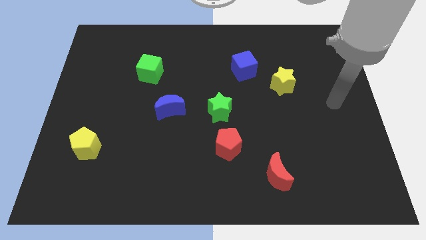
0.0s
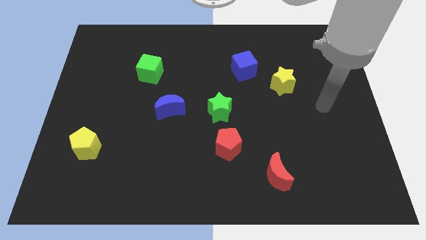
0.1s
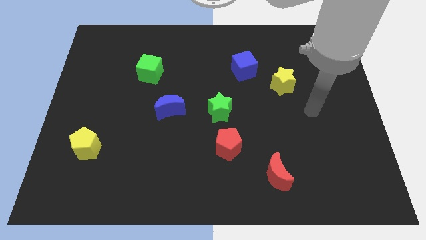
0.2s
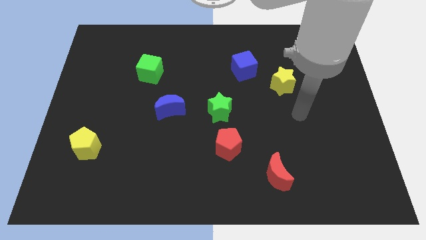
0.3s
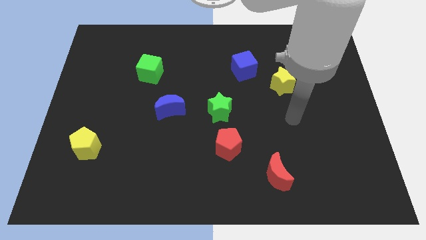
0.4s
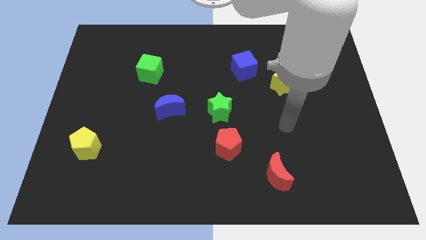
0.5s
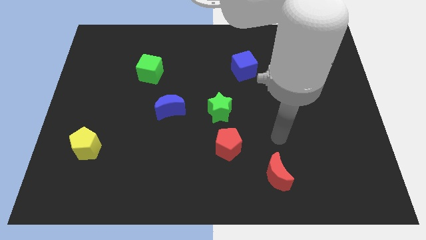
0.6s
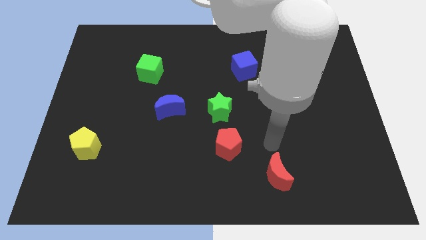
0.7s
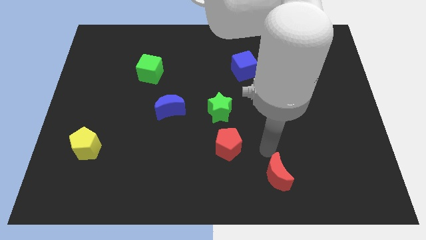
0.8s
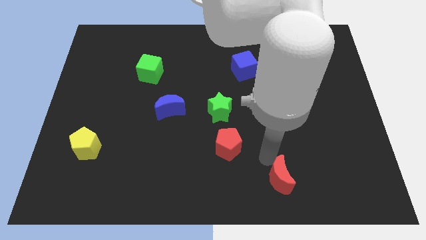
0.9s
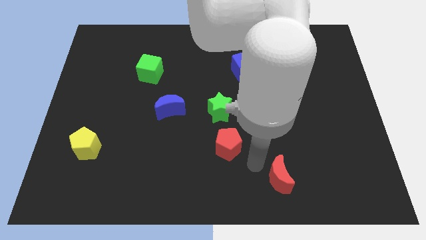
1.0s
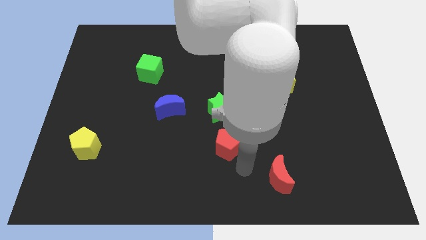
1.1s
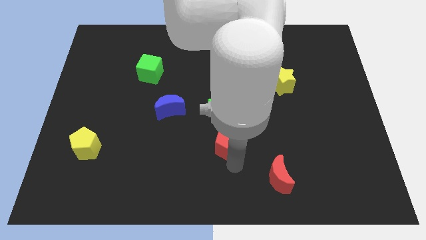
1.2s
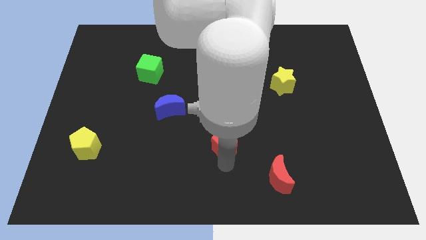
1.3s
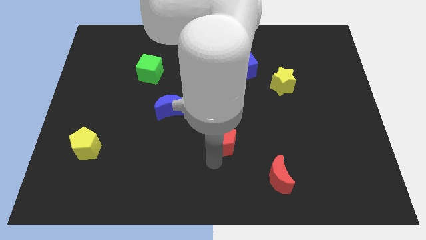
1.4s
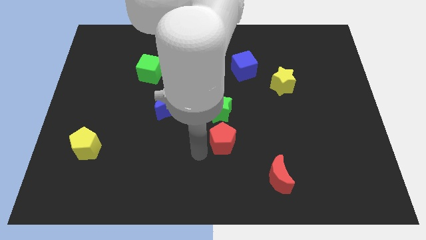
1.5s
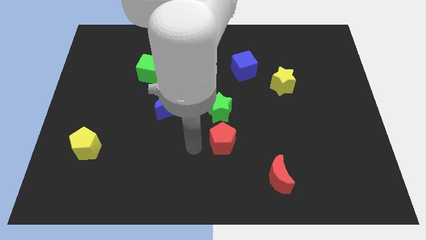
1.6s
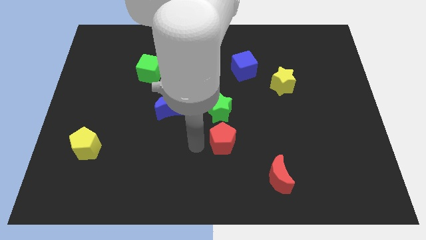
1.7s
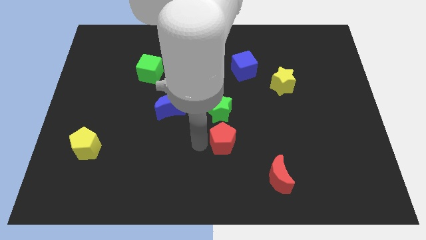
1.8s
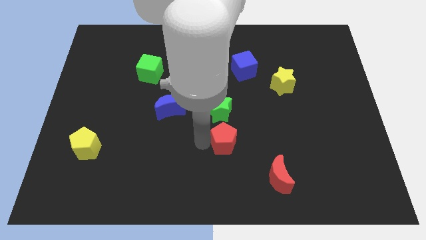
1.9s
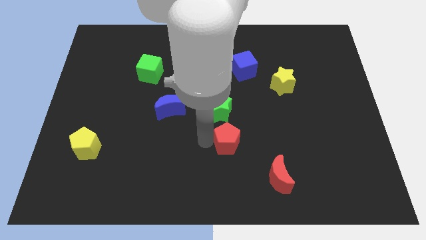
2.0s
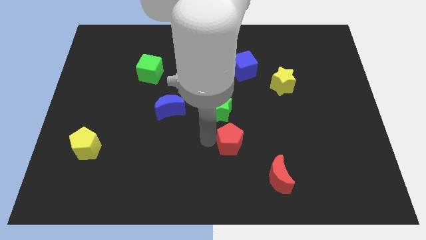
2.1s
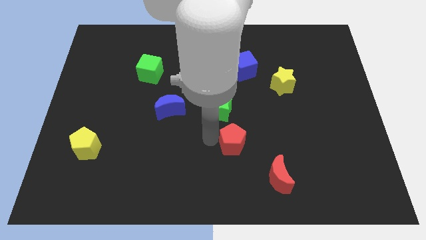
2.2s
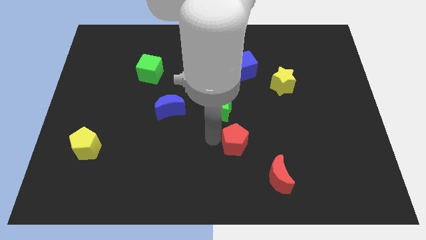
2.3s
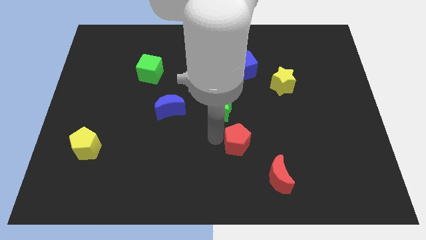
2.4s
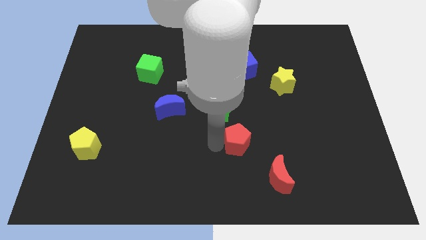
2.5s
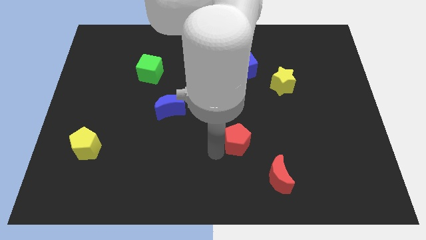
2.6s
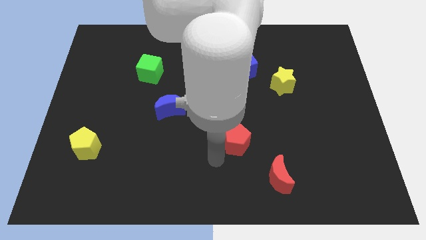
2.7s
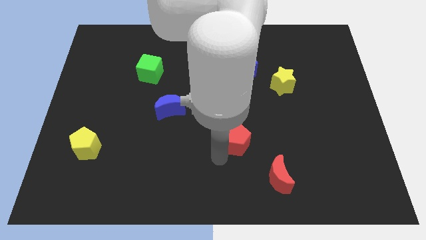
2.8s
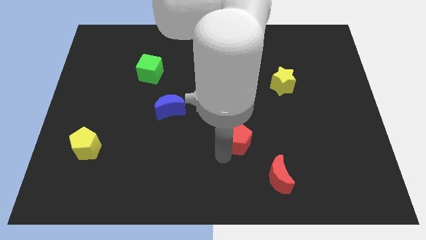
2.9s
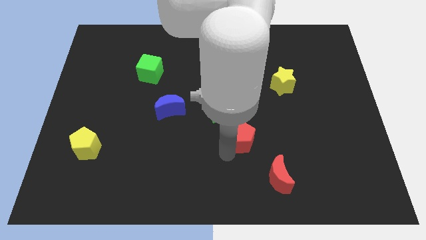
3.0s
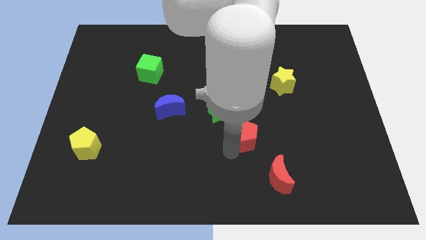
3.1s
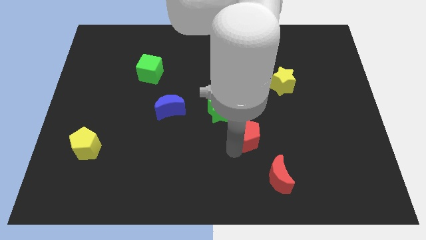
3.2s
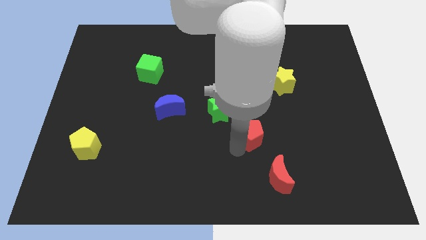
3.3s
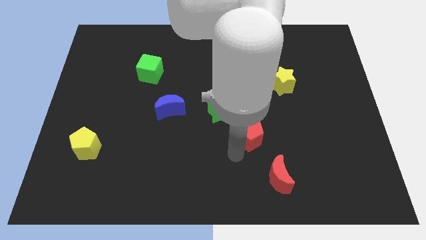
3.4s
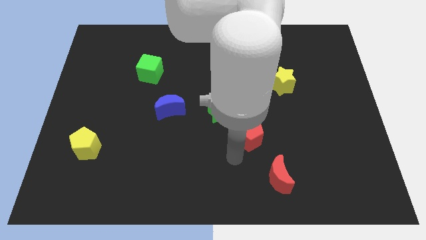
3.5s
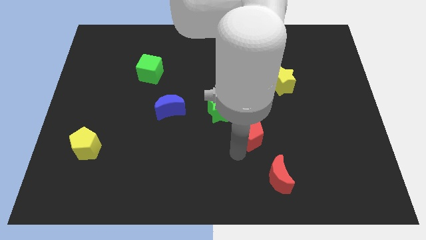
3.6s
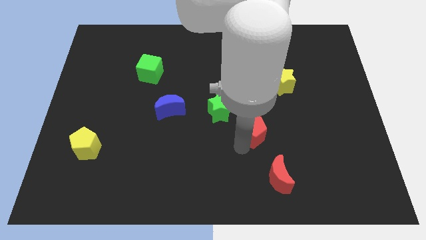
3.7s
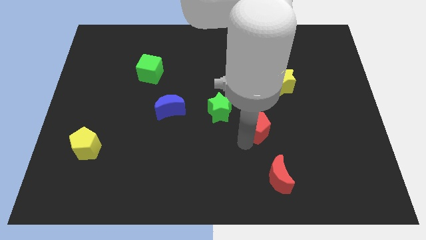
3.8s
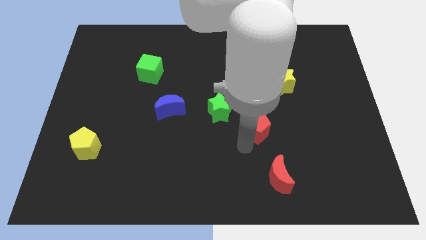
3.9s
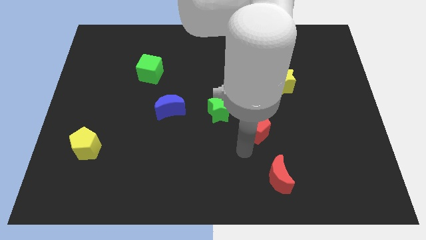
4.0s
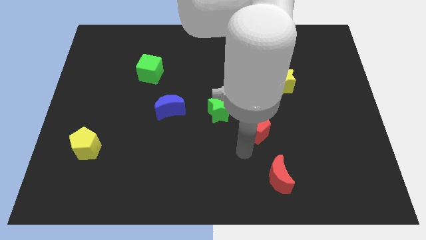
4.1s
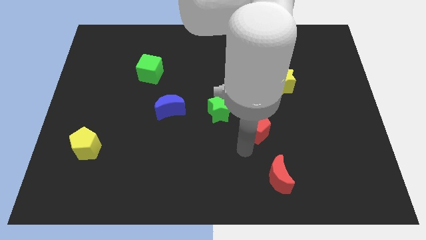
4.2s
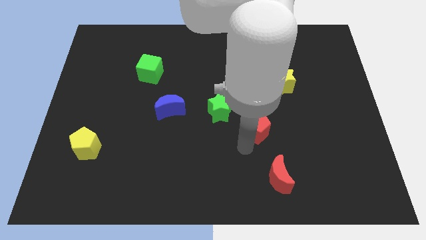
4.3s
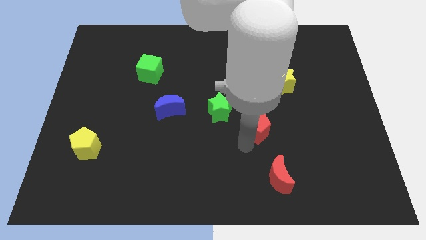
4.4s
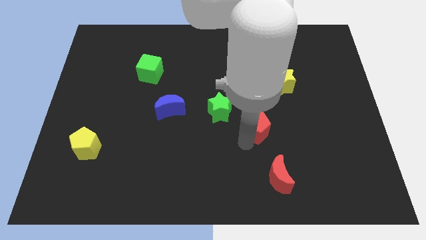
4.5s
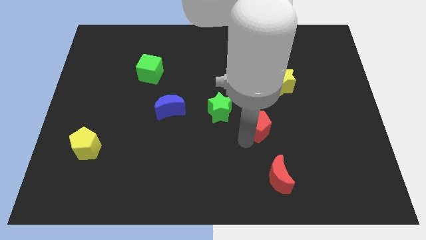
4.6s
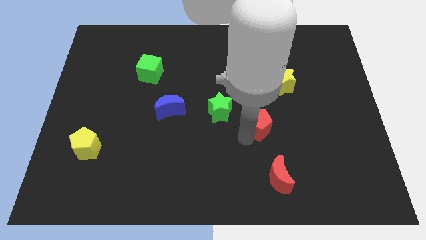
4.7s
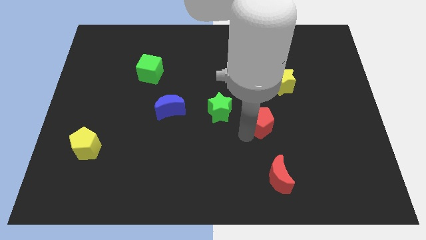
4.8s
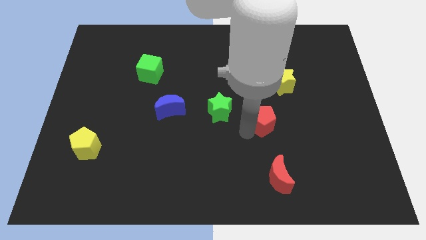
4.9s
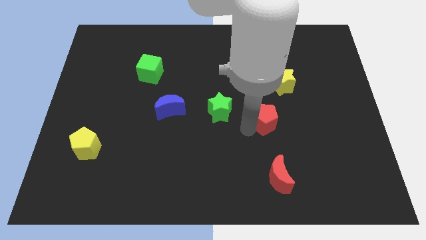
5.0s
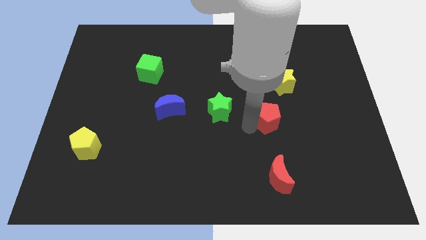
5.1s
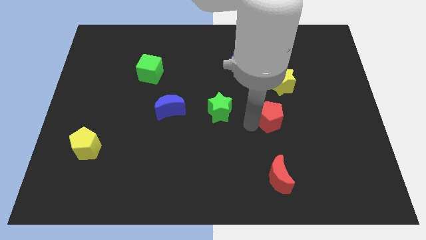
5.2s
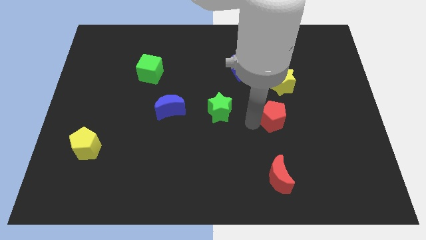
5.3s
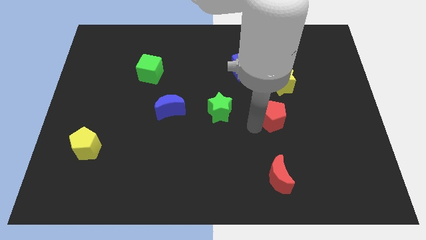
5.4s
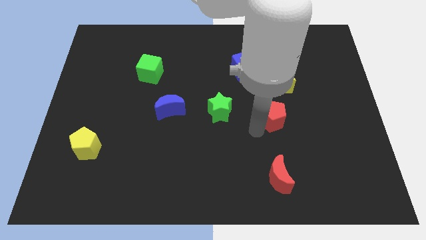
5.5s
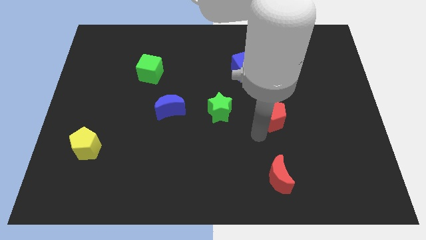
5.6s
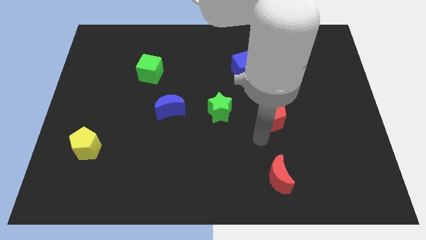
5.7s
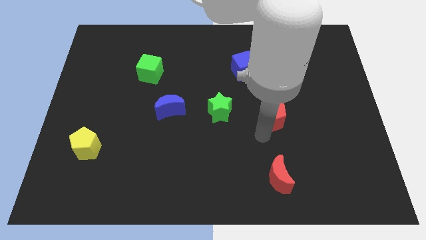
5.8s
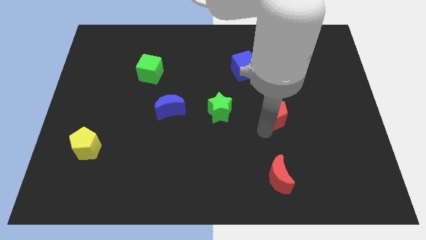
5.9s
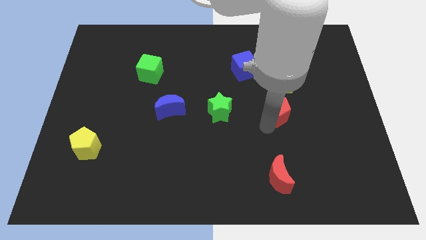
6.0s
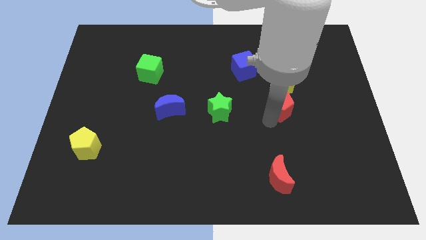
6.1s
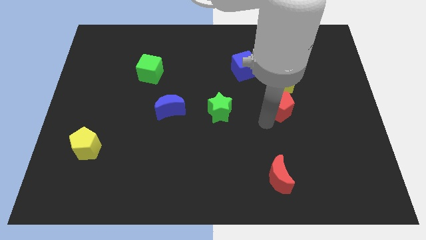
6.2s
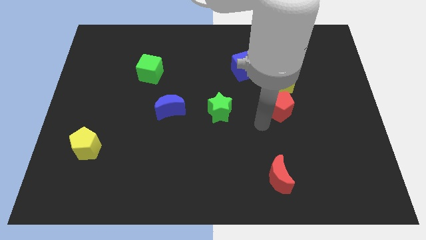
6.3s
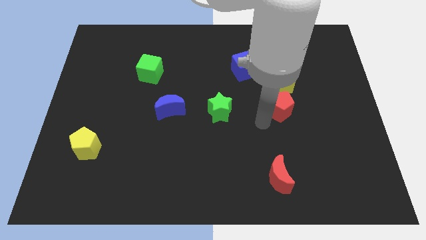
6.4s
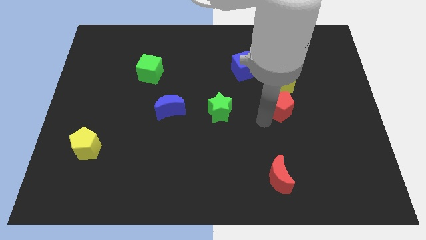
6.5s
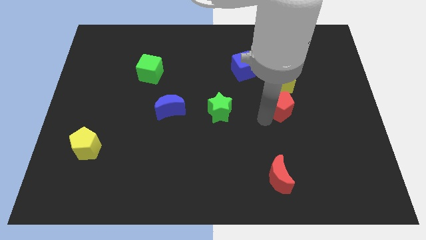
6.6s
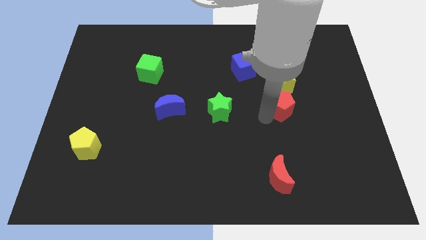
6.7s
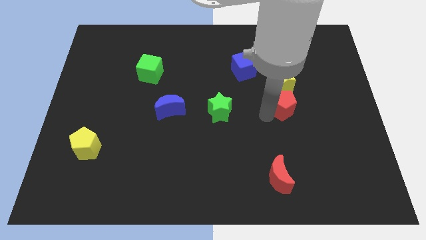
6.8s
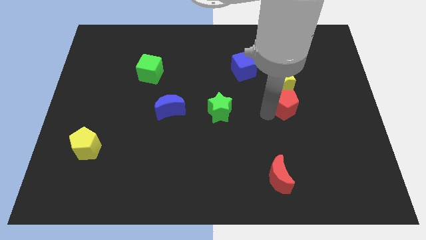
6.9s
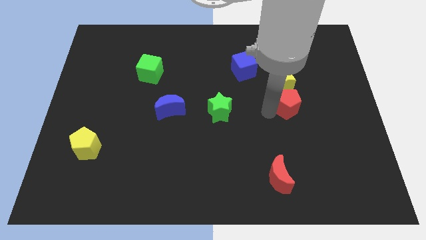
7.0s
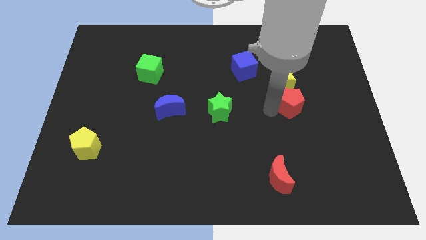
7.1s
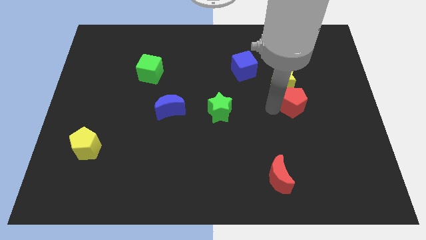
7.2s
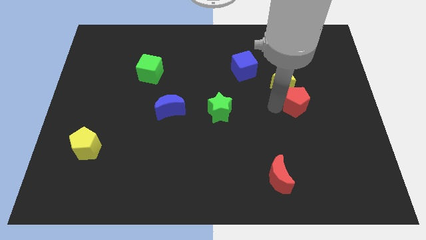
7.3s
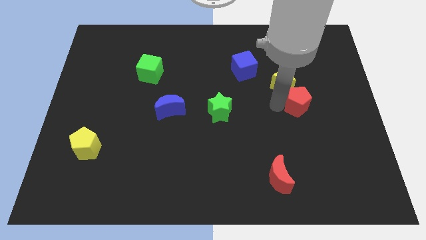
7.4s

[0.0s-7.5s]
slide the red pentagon diagonally upwards and to the right

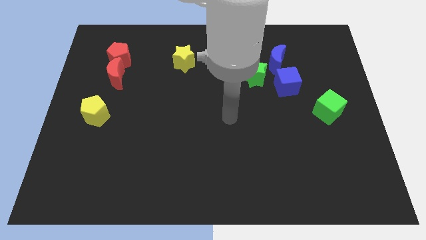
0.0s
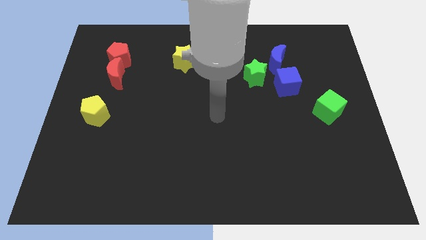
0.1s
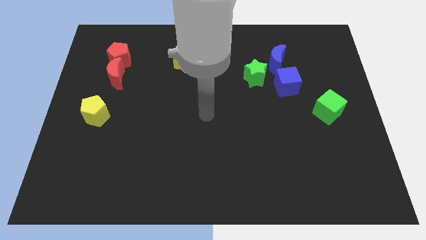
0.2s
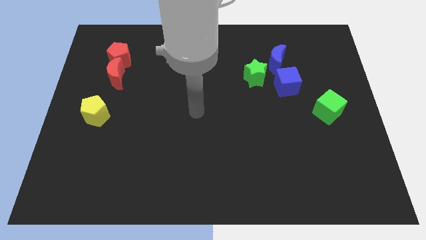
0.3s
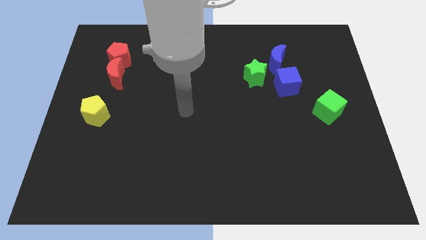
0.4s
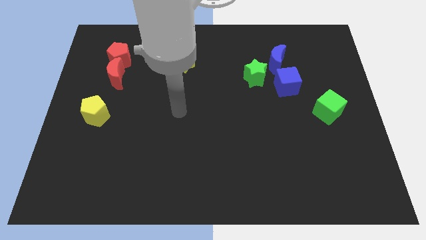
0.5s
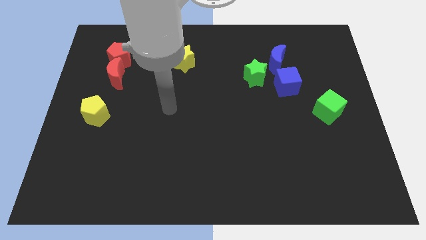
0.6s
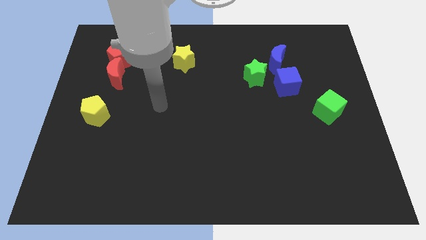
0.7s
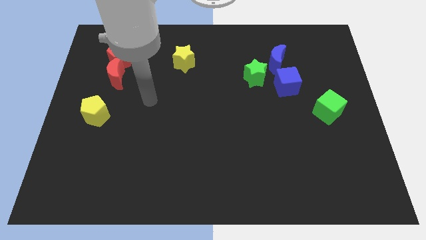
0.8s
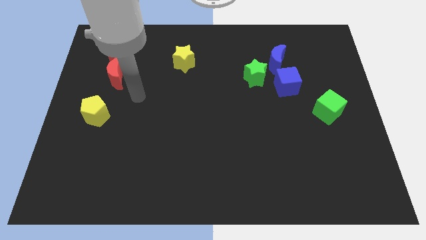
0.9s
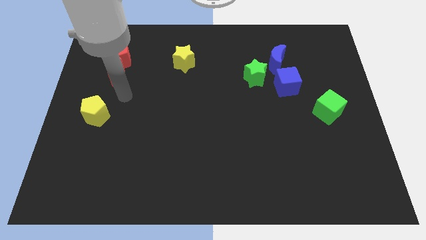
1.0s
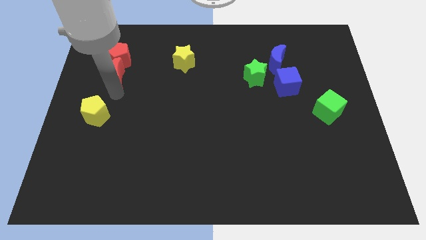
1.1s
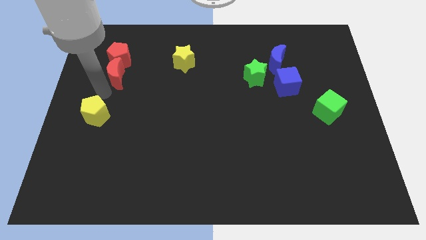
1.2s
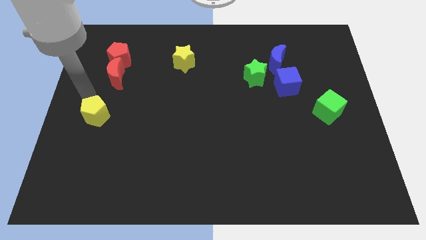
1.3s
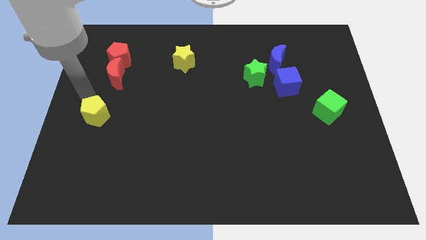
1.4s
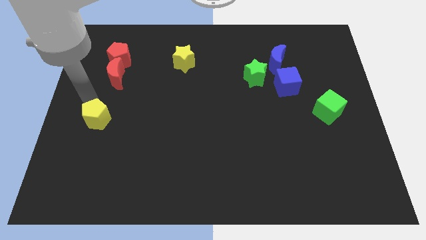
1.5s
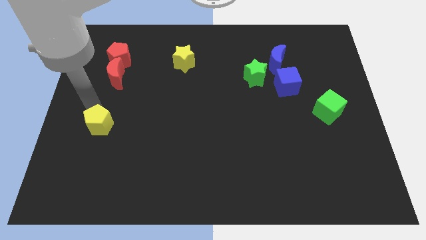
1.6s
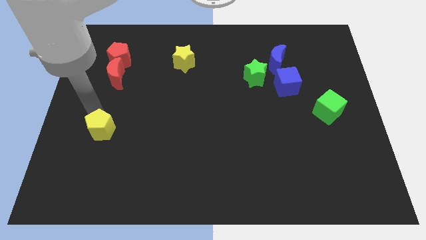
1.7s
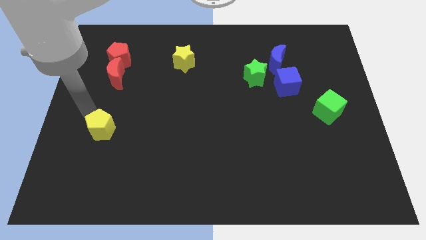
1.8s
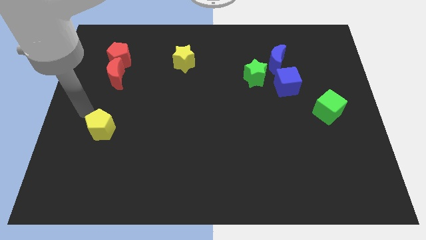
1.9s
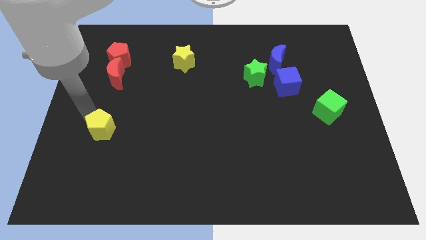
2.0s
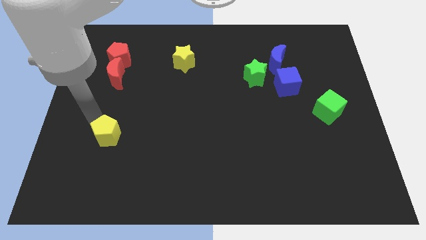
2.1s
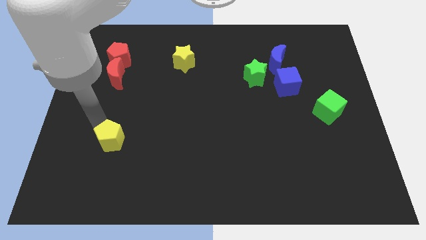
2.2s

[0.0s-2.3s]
slightly move the yellow pentagon down and to the right diagonally
